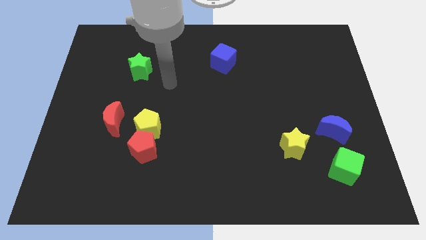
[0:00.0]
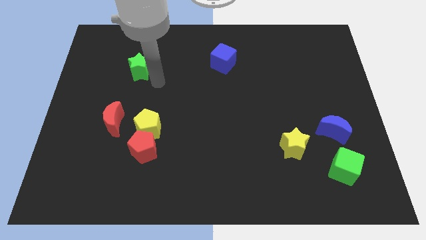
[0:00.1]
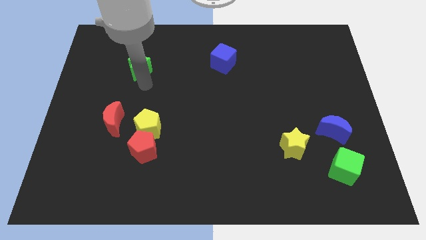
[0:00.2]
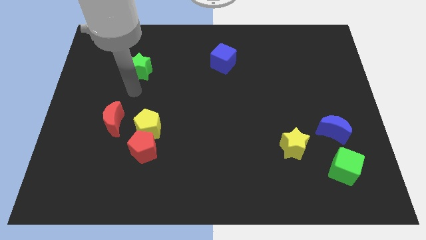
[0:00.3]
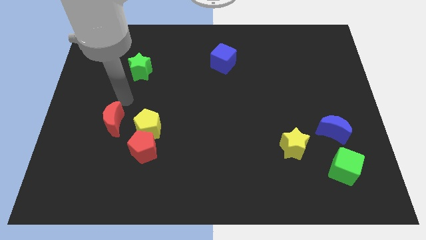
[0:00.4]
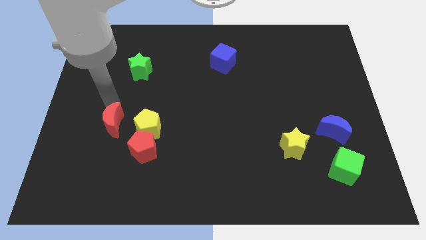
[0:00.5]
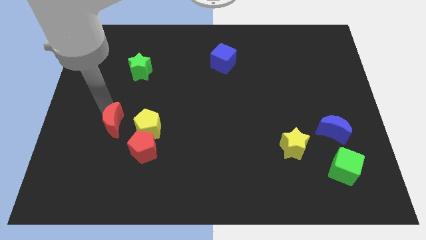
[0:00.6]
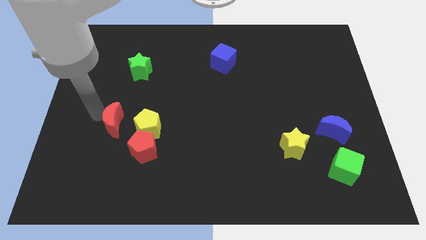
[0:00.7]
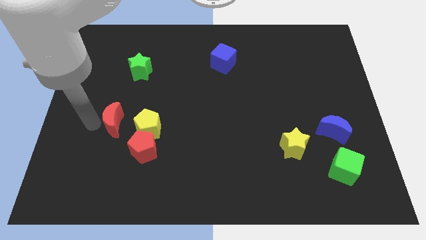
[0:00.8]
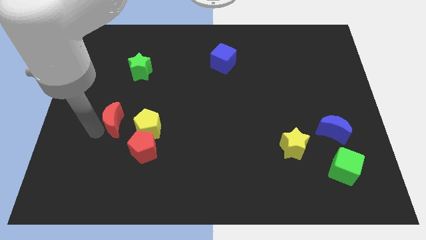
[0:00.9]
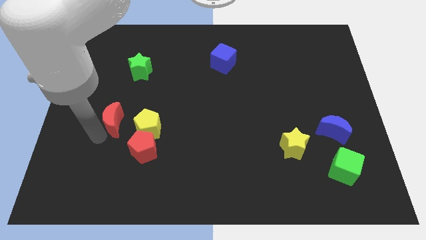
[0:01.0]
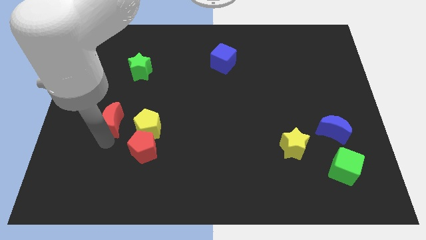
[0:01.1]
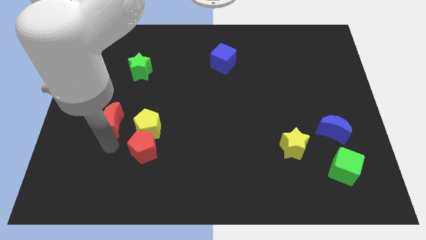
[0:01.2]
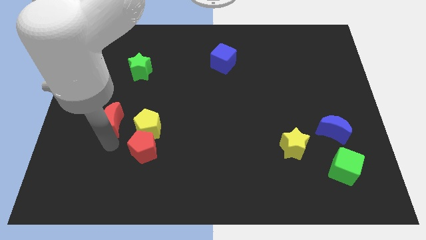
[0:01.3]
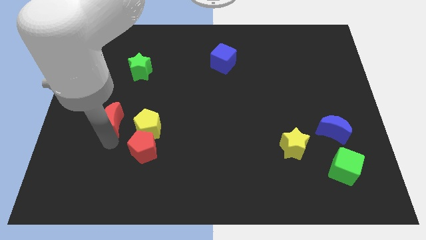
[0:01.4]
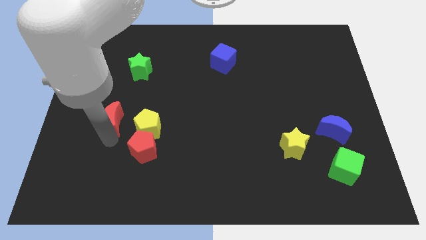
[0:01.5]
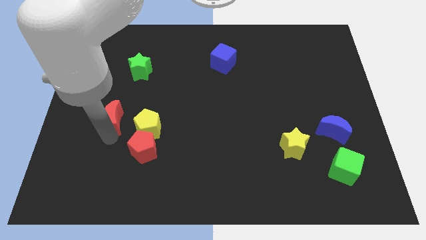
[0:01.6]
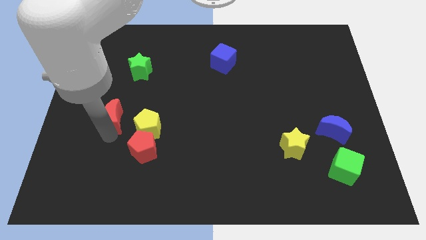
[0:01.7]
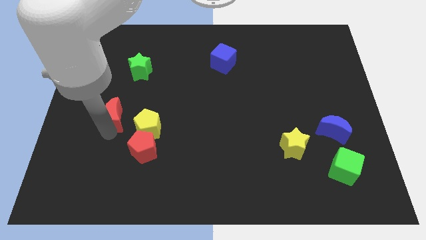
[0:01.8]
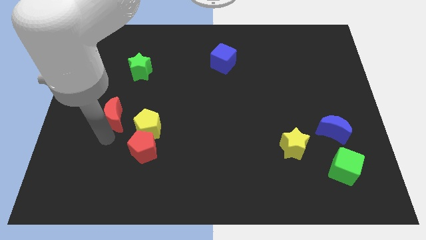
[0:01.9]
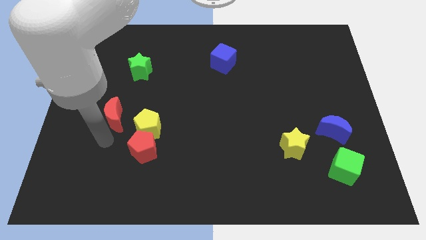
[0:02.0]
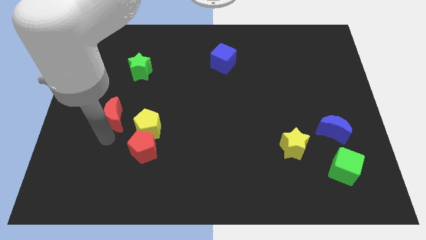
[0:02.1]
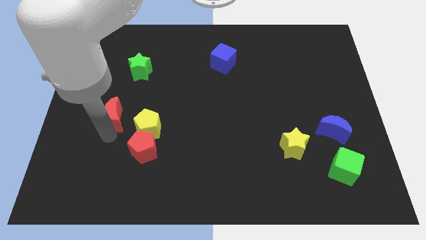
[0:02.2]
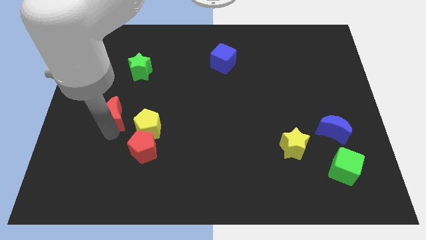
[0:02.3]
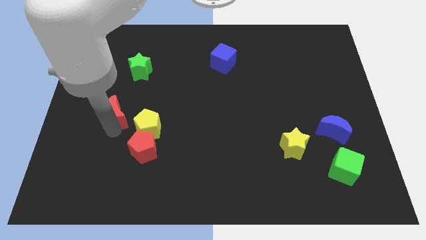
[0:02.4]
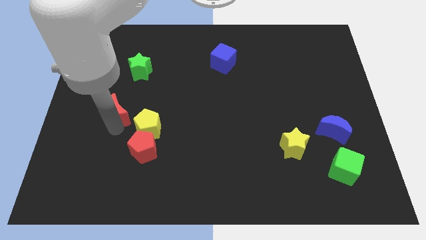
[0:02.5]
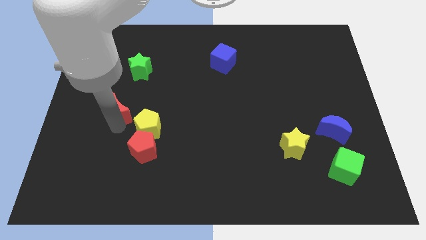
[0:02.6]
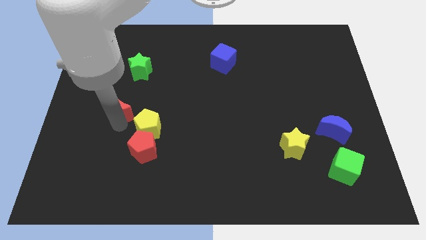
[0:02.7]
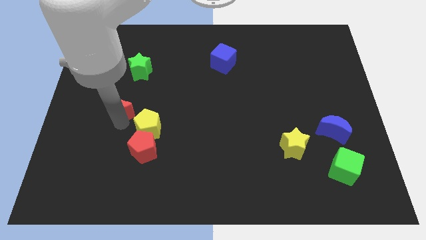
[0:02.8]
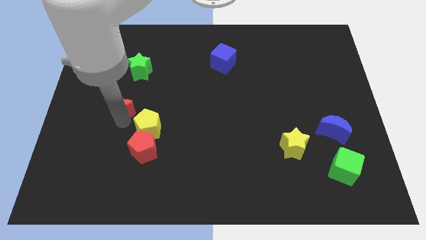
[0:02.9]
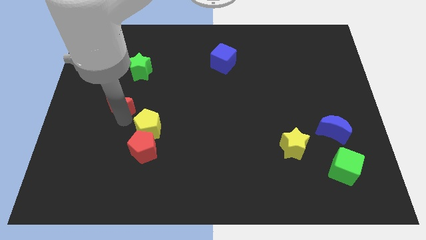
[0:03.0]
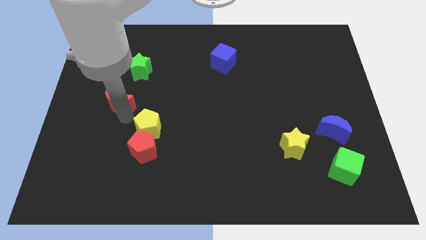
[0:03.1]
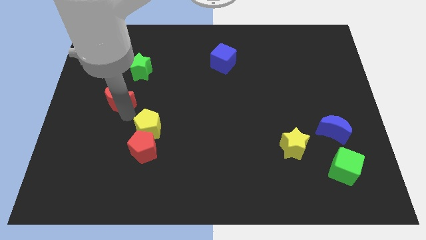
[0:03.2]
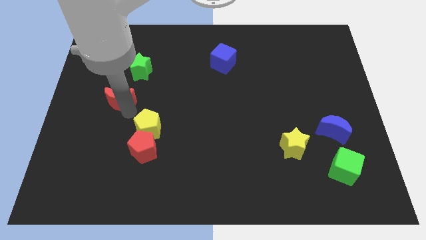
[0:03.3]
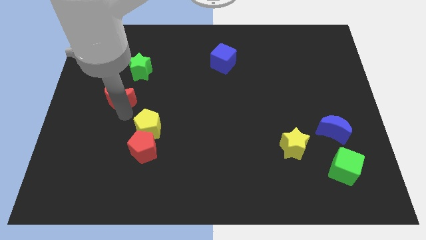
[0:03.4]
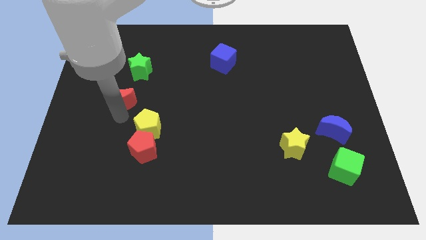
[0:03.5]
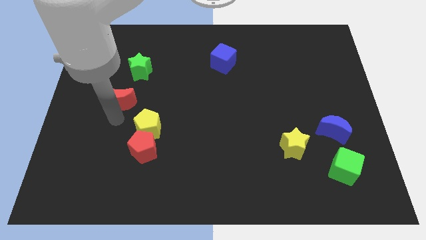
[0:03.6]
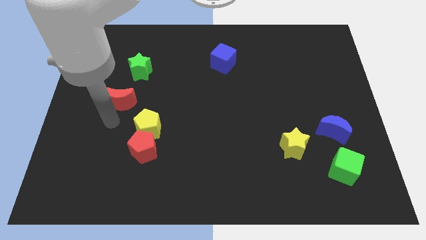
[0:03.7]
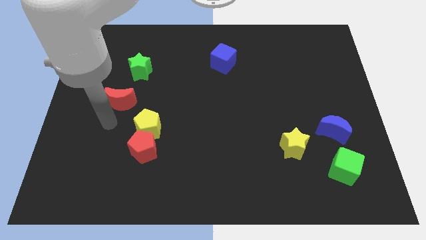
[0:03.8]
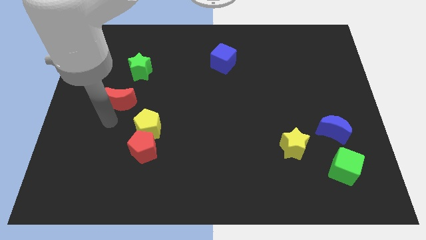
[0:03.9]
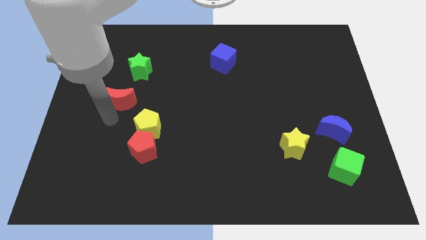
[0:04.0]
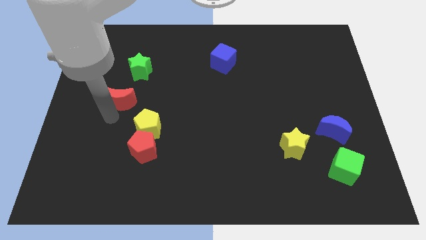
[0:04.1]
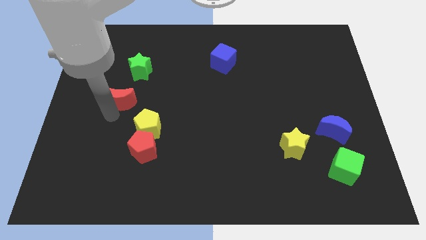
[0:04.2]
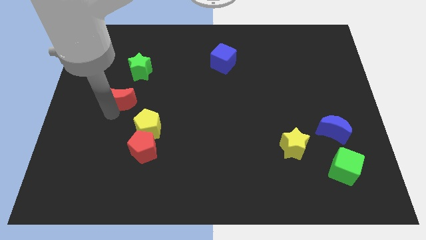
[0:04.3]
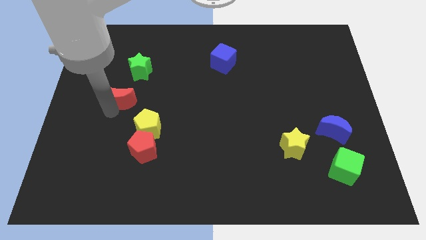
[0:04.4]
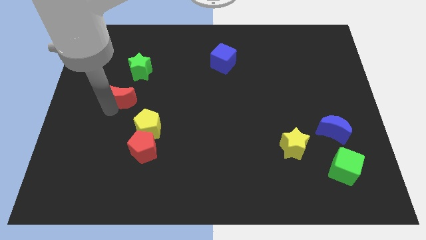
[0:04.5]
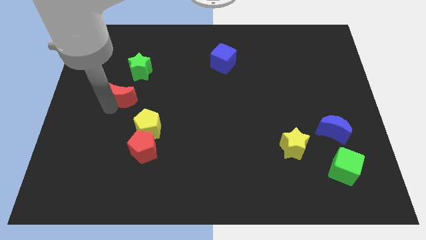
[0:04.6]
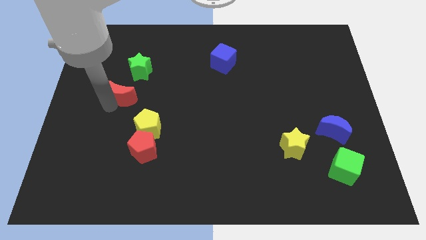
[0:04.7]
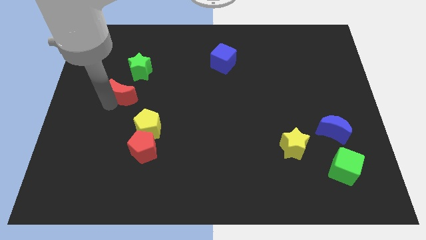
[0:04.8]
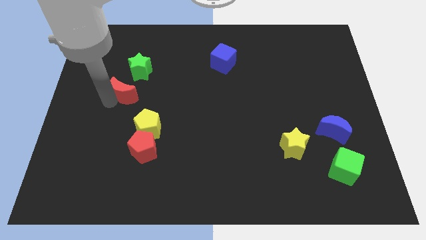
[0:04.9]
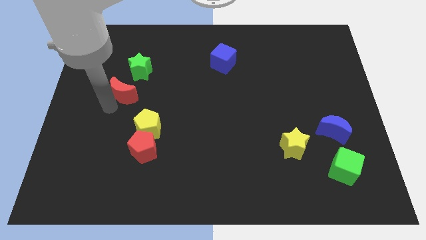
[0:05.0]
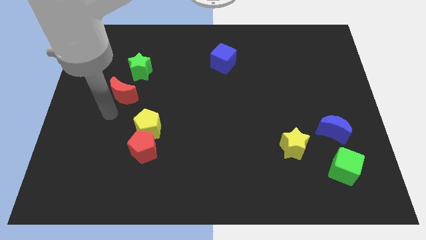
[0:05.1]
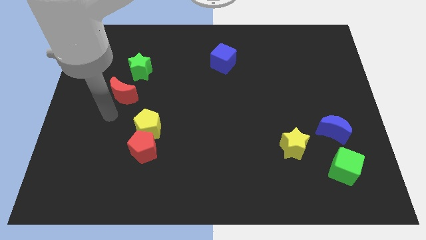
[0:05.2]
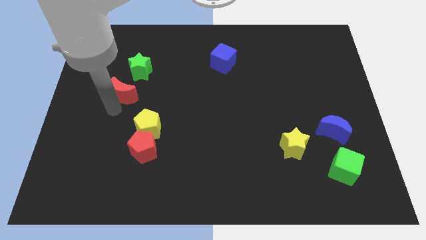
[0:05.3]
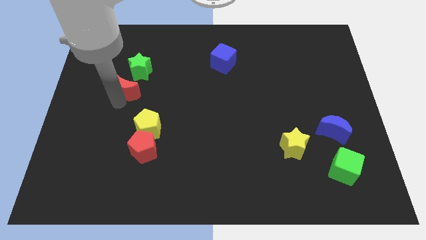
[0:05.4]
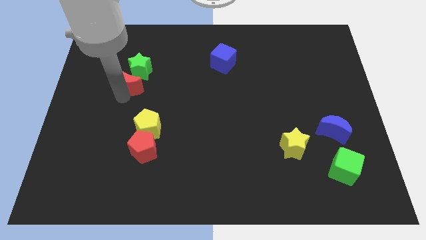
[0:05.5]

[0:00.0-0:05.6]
move the red moon towards the green star

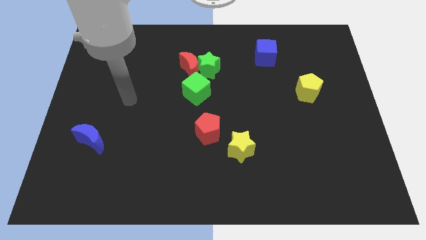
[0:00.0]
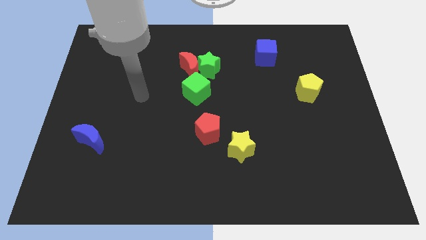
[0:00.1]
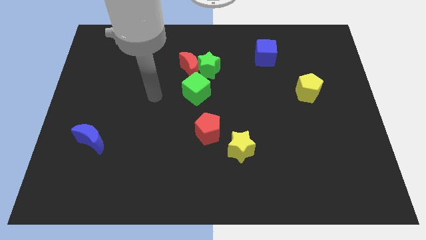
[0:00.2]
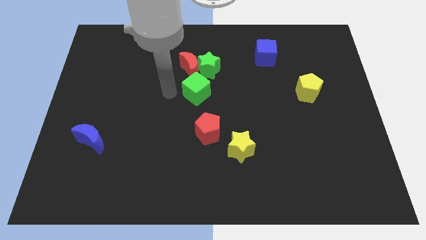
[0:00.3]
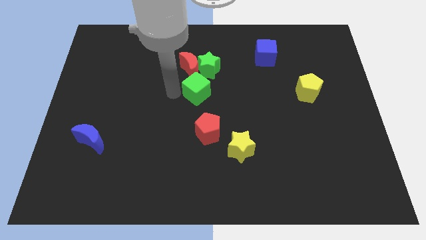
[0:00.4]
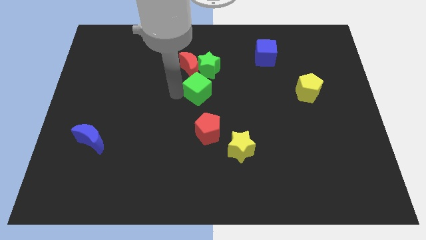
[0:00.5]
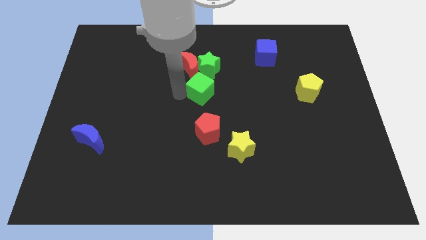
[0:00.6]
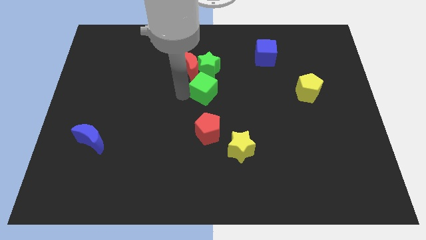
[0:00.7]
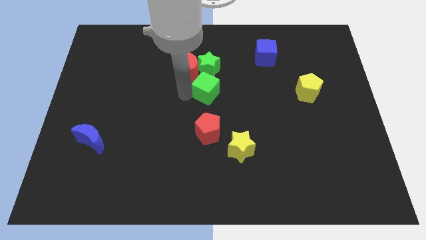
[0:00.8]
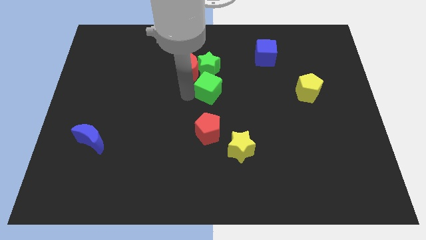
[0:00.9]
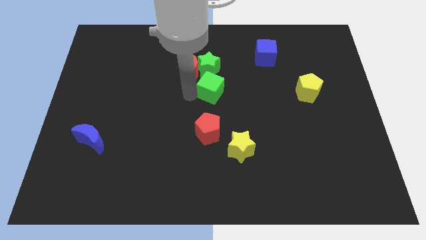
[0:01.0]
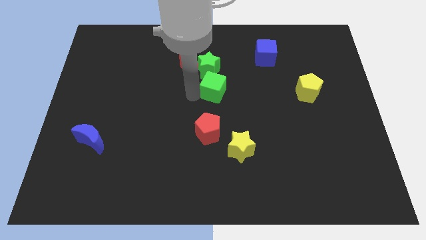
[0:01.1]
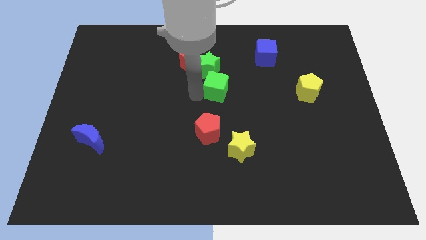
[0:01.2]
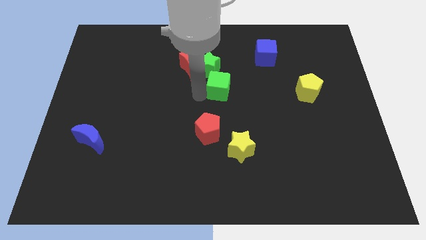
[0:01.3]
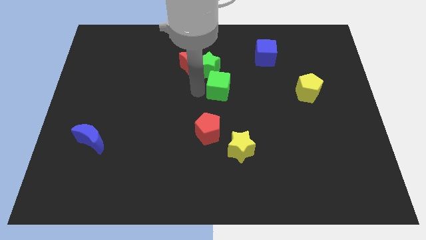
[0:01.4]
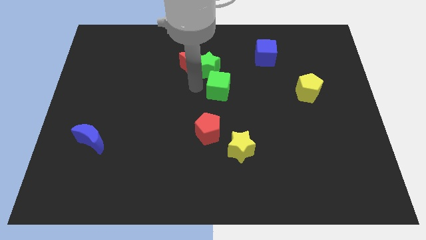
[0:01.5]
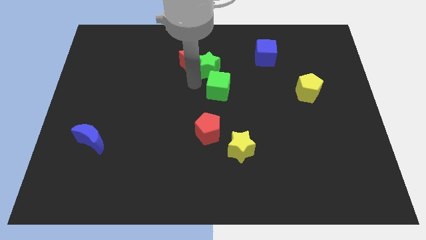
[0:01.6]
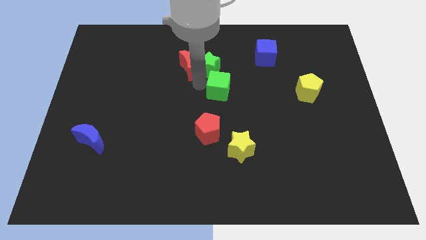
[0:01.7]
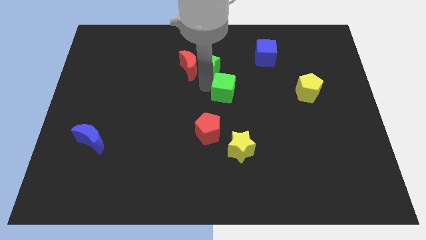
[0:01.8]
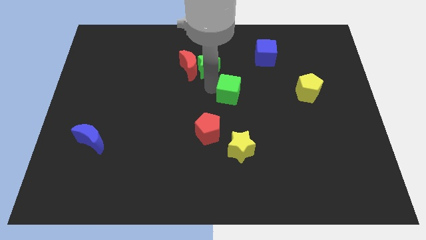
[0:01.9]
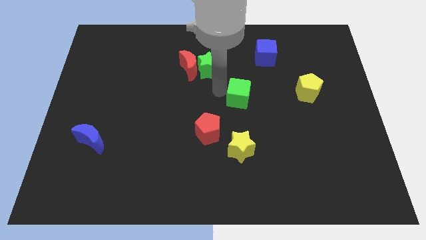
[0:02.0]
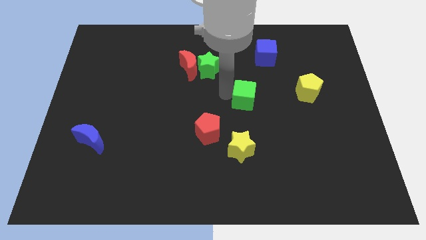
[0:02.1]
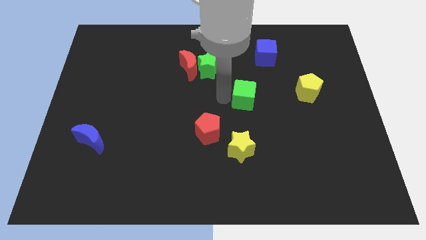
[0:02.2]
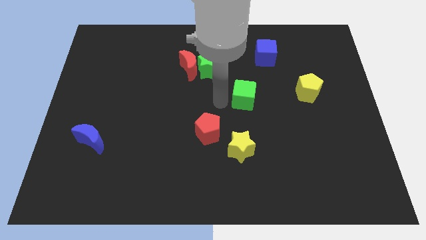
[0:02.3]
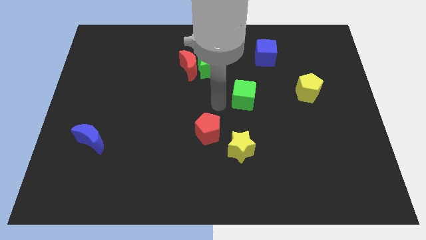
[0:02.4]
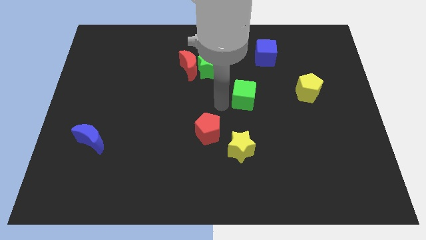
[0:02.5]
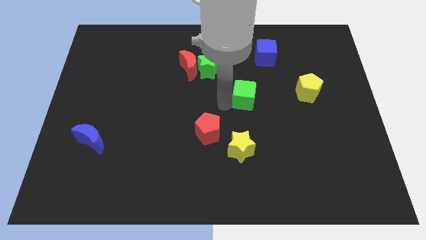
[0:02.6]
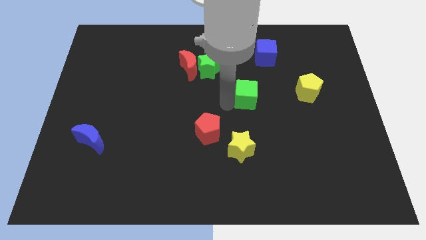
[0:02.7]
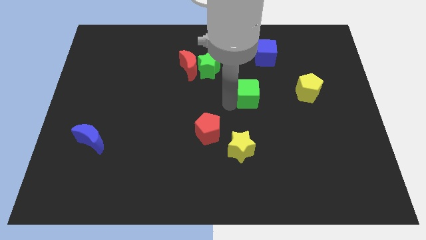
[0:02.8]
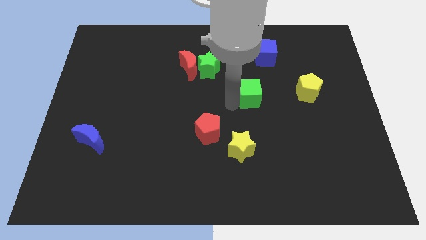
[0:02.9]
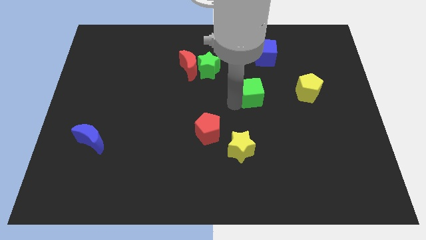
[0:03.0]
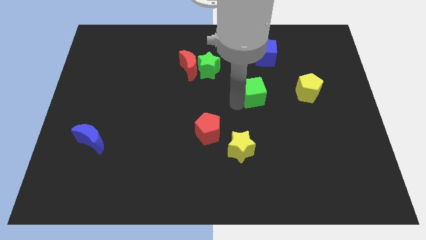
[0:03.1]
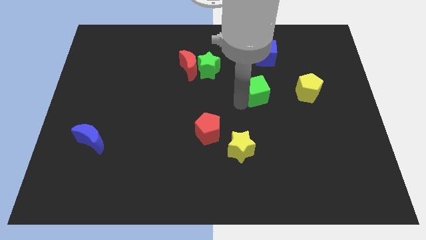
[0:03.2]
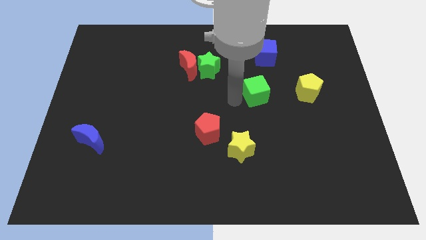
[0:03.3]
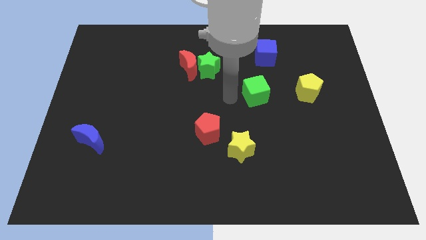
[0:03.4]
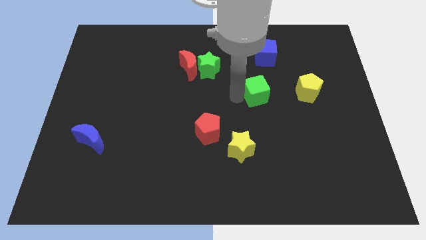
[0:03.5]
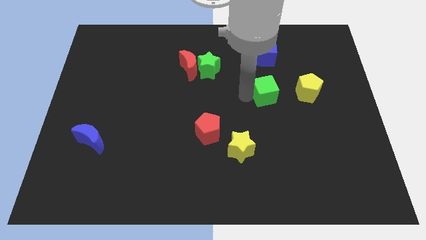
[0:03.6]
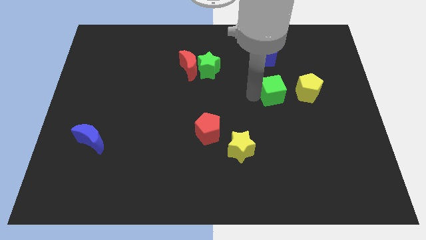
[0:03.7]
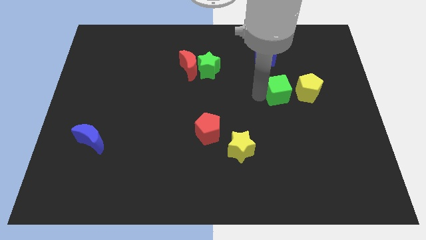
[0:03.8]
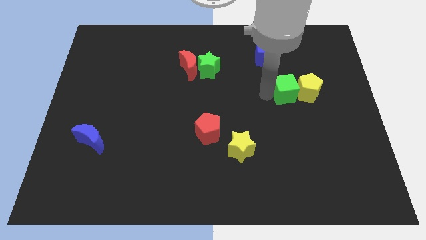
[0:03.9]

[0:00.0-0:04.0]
put the green cube to the yellow pentagon
